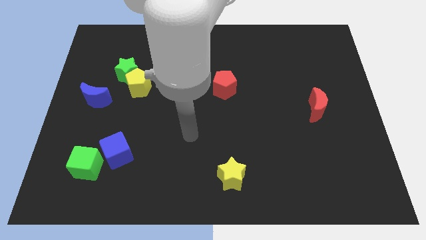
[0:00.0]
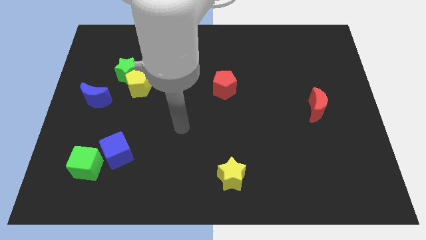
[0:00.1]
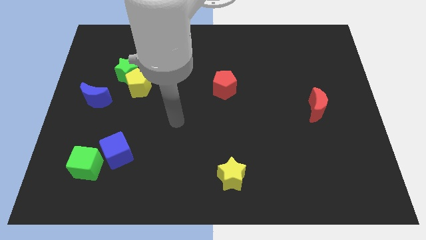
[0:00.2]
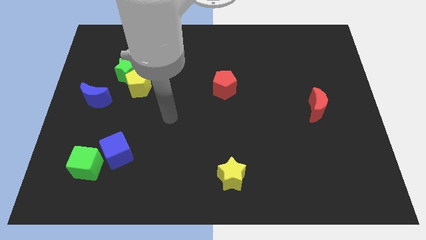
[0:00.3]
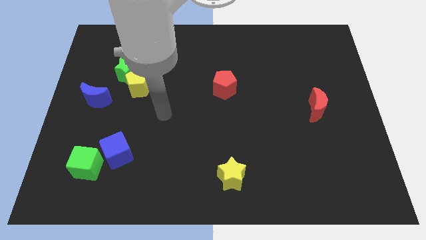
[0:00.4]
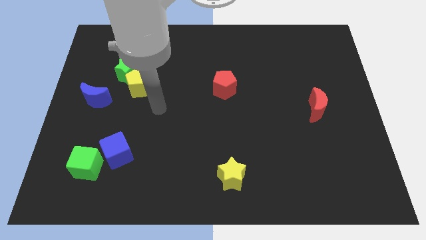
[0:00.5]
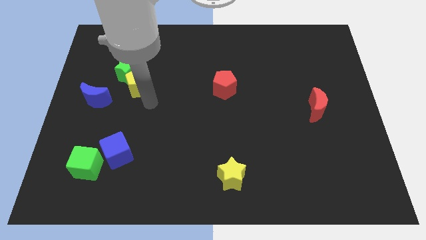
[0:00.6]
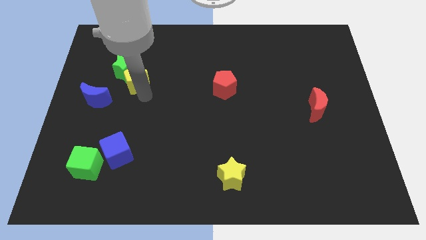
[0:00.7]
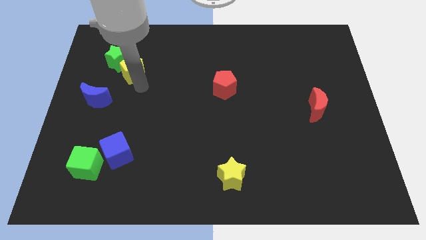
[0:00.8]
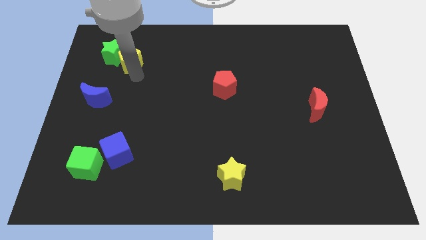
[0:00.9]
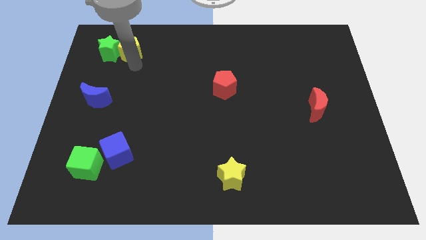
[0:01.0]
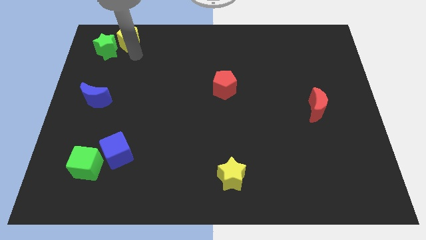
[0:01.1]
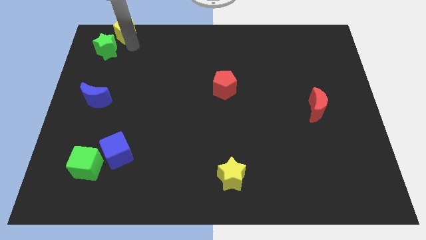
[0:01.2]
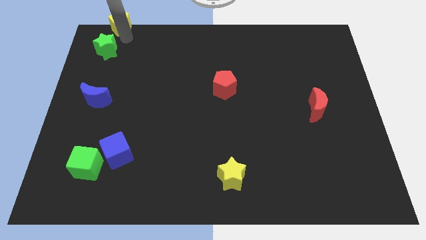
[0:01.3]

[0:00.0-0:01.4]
separate the green star from the yellow pentagon

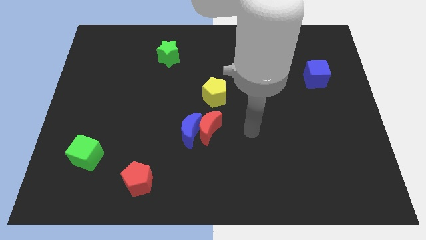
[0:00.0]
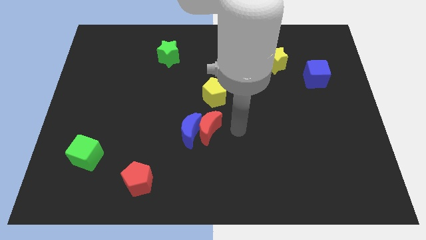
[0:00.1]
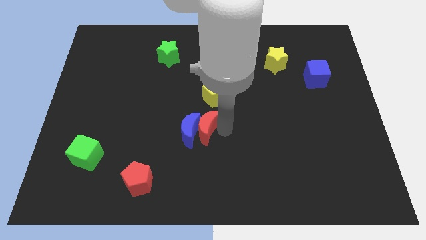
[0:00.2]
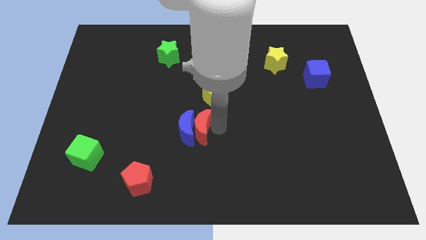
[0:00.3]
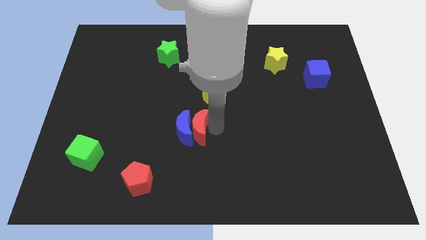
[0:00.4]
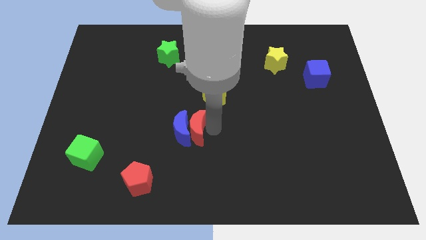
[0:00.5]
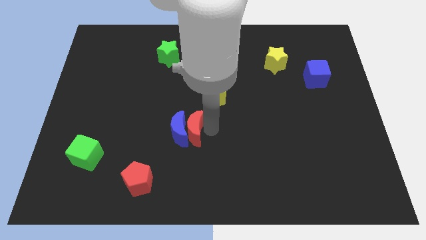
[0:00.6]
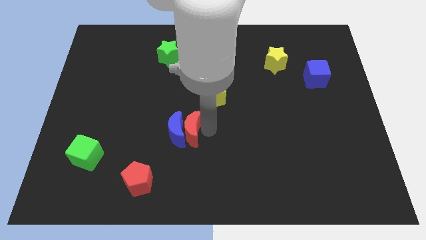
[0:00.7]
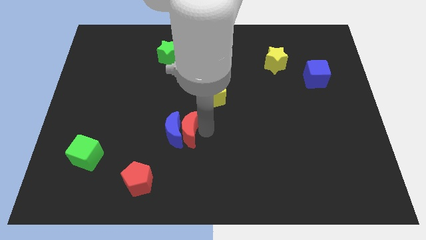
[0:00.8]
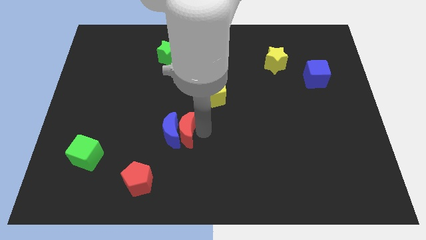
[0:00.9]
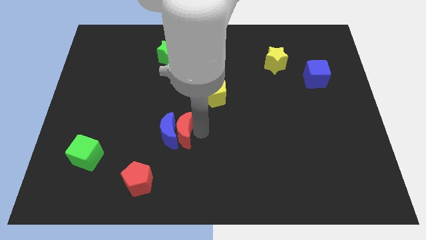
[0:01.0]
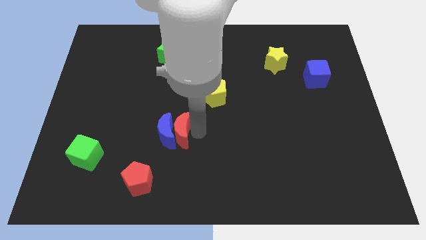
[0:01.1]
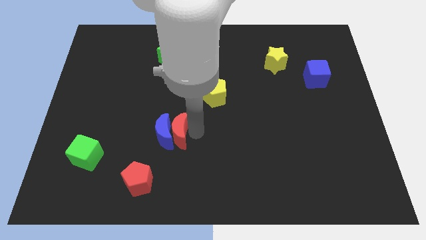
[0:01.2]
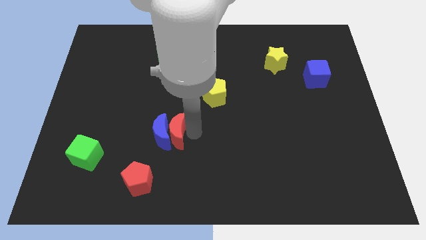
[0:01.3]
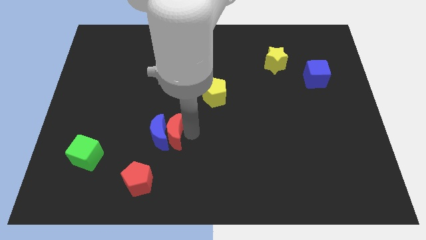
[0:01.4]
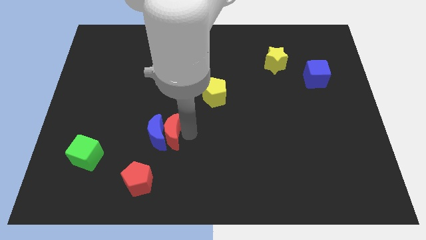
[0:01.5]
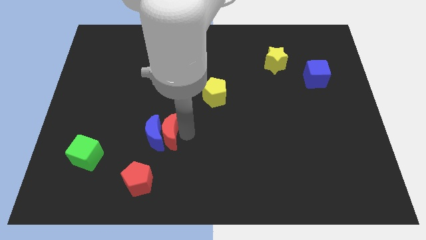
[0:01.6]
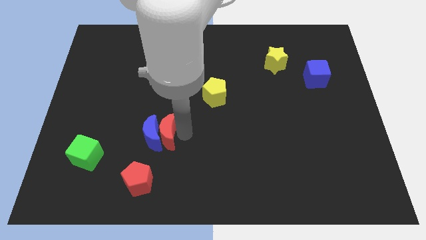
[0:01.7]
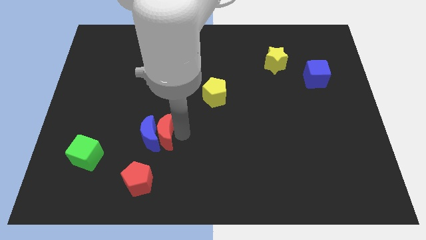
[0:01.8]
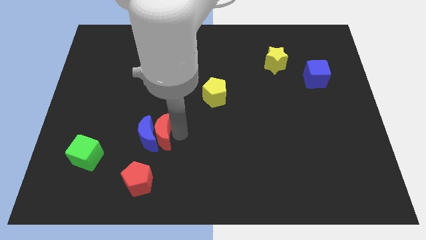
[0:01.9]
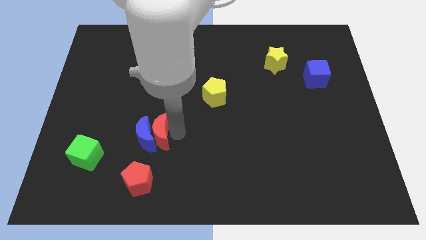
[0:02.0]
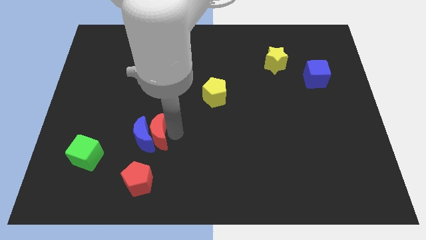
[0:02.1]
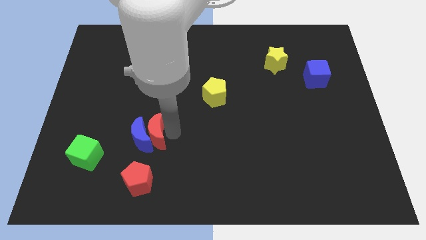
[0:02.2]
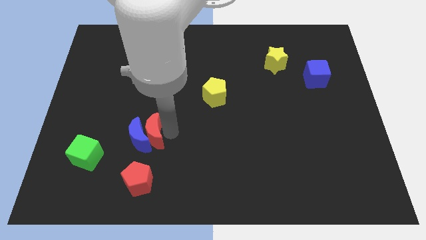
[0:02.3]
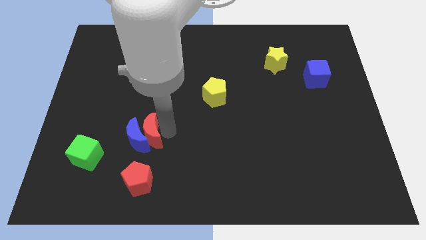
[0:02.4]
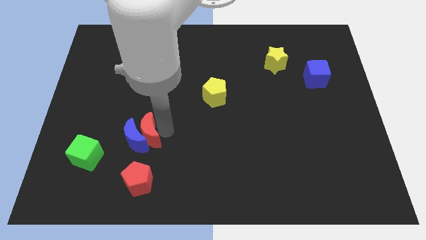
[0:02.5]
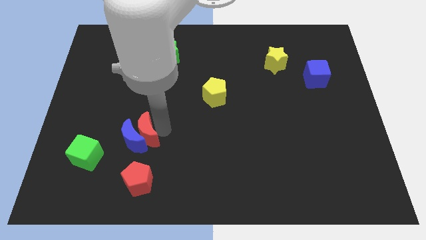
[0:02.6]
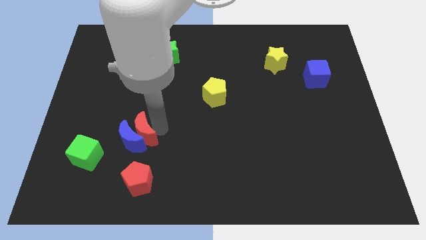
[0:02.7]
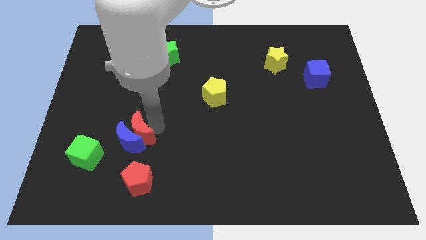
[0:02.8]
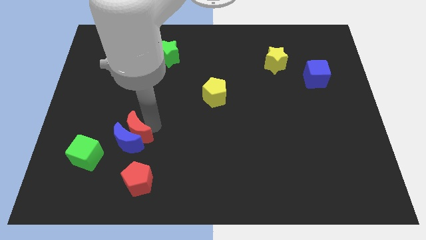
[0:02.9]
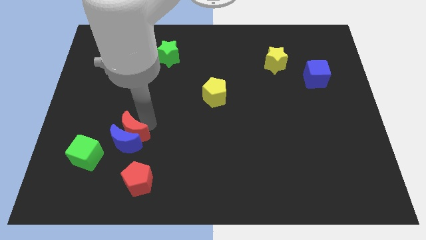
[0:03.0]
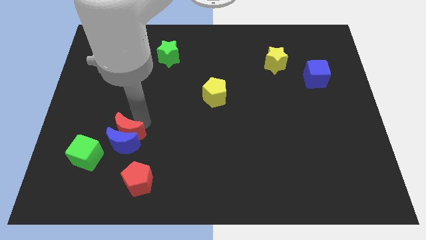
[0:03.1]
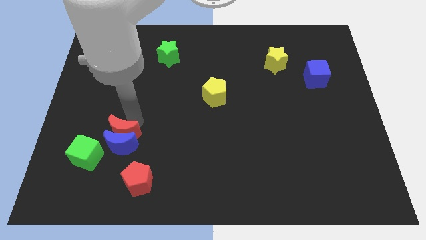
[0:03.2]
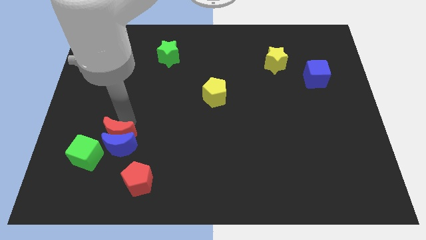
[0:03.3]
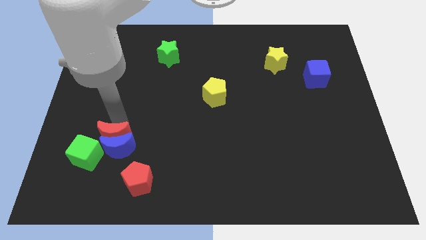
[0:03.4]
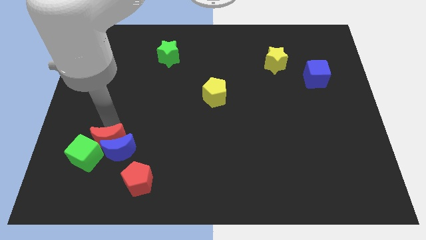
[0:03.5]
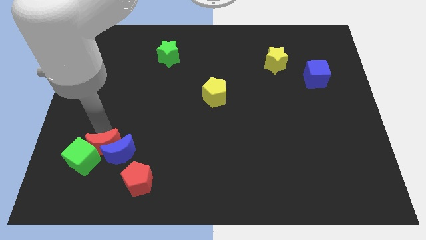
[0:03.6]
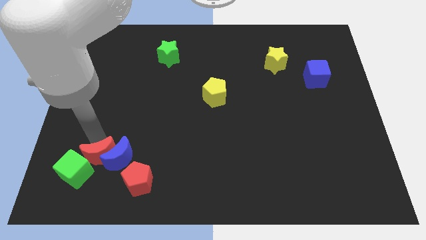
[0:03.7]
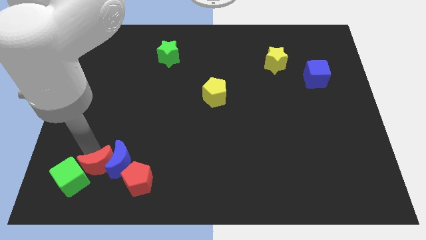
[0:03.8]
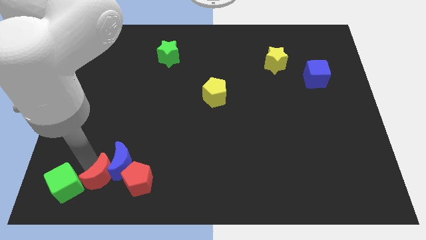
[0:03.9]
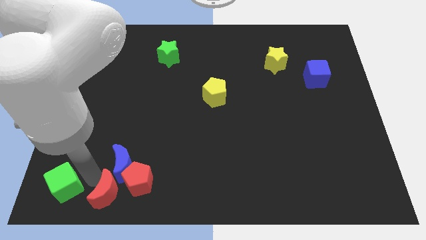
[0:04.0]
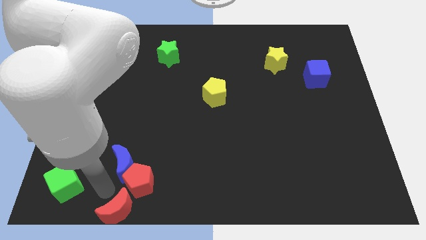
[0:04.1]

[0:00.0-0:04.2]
move the blue moon away from the red moon

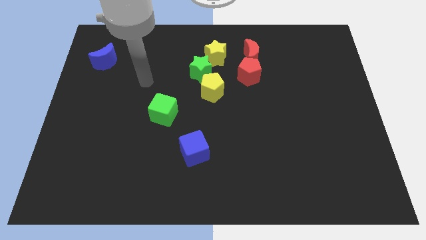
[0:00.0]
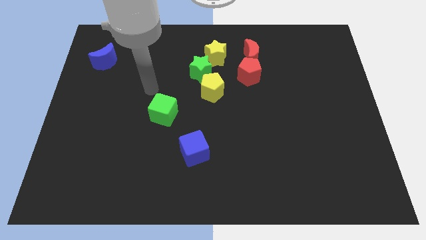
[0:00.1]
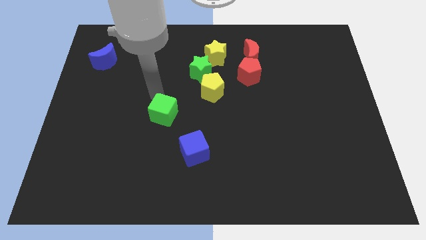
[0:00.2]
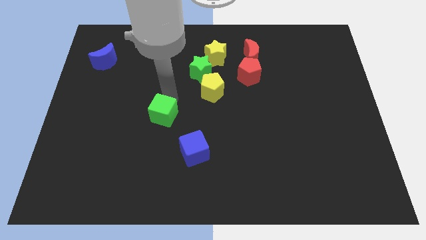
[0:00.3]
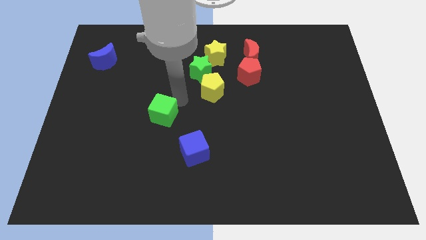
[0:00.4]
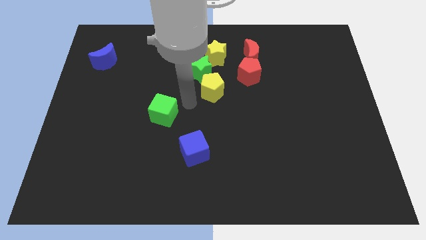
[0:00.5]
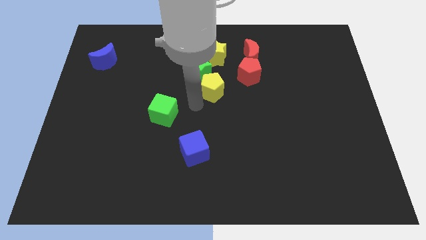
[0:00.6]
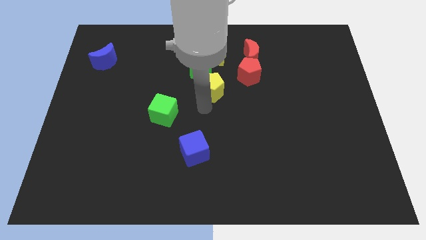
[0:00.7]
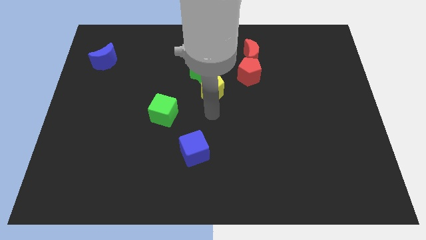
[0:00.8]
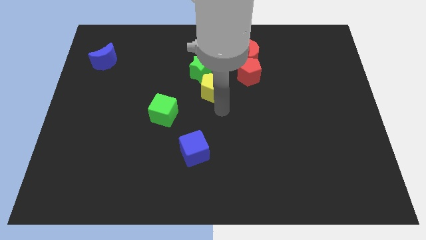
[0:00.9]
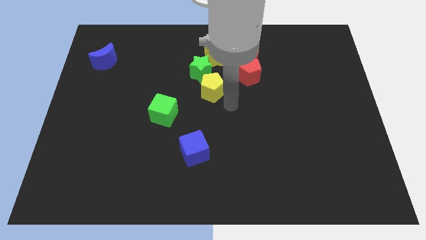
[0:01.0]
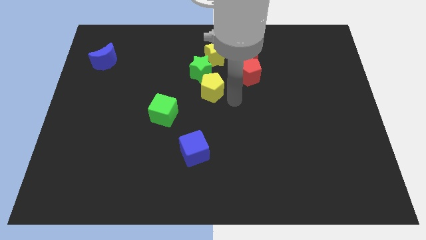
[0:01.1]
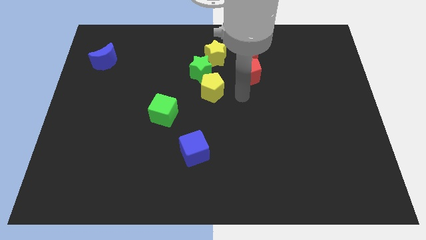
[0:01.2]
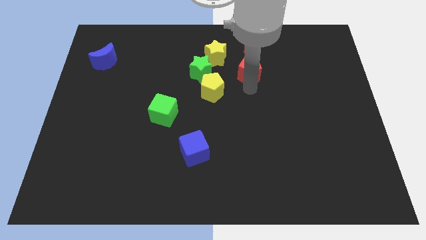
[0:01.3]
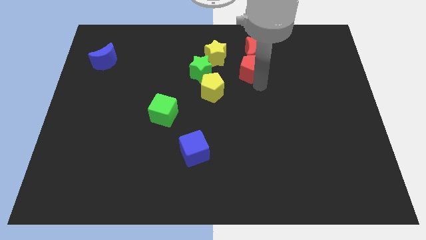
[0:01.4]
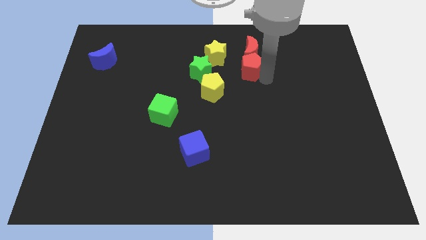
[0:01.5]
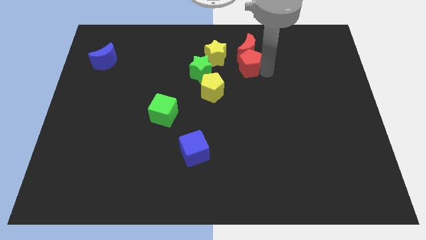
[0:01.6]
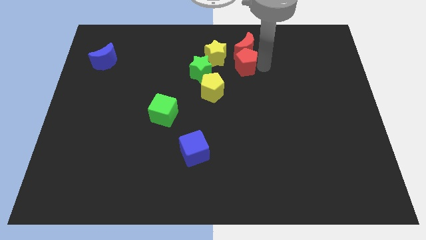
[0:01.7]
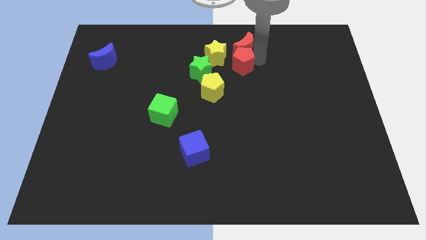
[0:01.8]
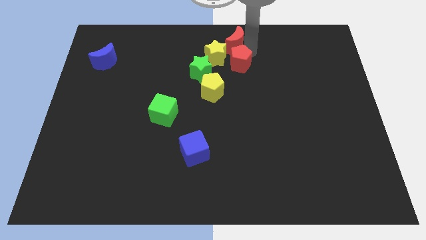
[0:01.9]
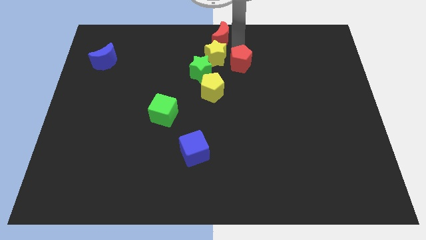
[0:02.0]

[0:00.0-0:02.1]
pull the red pentagon apart from the red moon

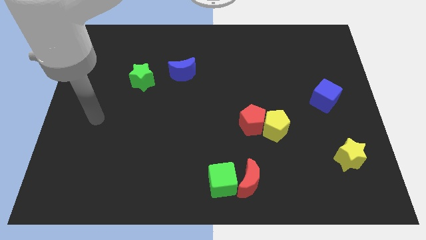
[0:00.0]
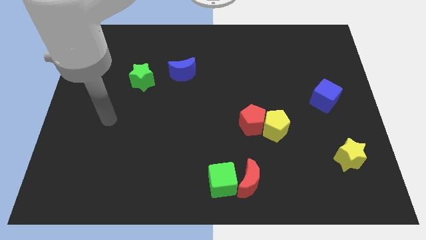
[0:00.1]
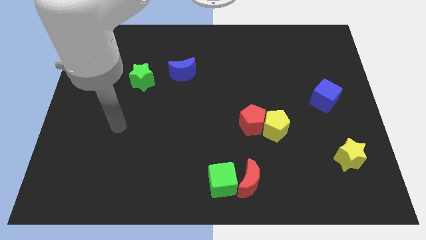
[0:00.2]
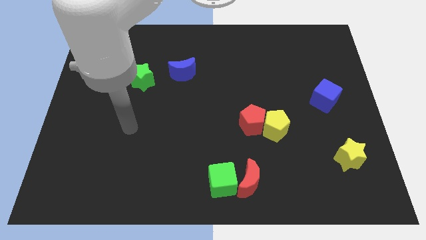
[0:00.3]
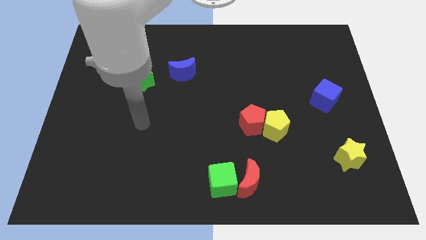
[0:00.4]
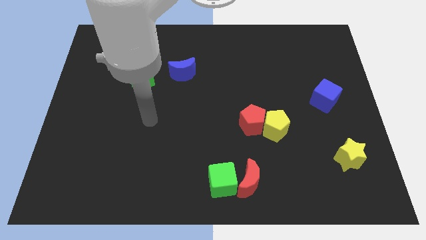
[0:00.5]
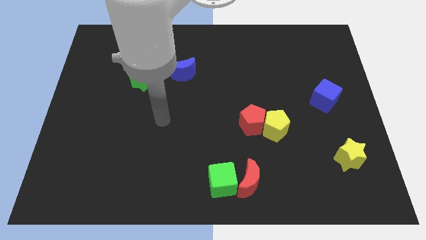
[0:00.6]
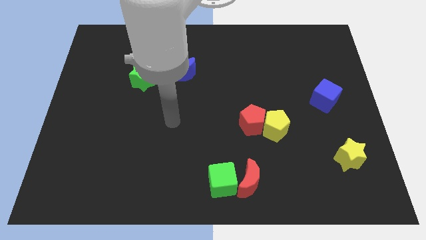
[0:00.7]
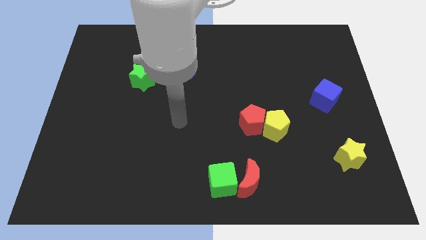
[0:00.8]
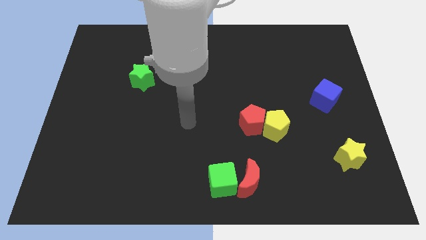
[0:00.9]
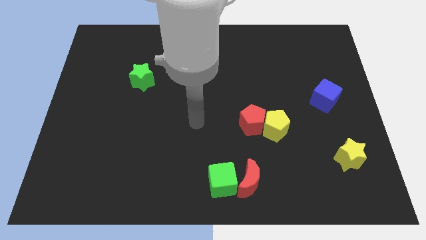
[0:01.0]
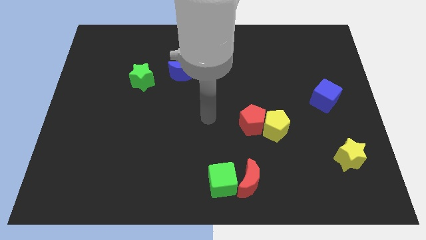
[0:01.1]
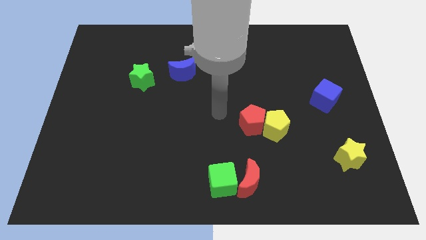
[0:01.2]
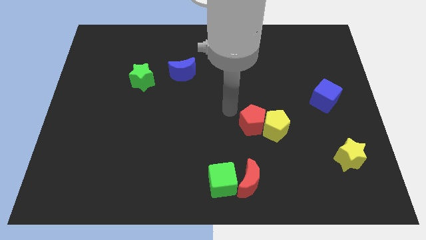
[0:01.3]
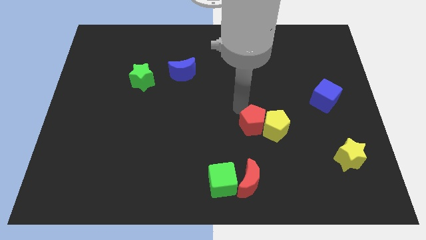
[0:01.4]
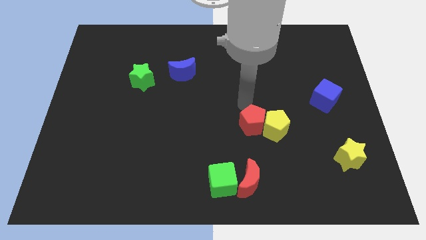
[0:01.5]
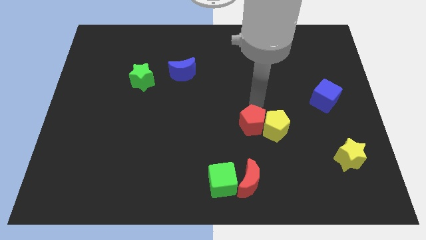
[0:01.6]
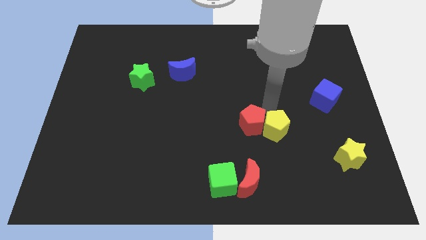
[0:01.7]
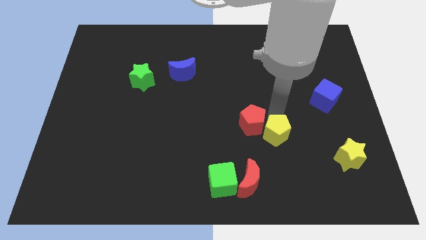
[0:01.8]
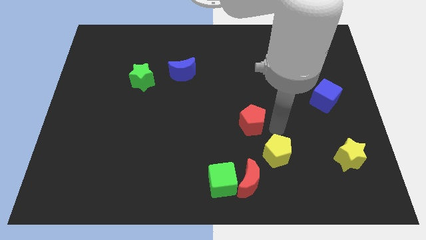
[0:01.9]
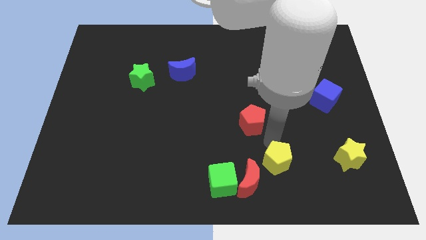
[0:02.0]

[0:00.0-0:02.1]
separate the red pentagon from the yellow pentagon
